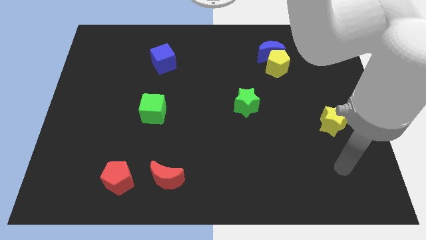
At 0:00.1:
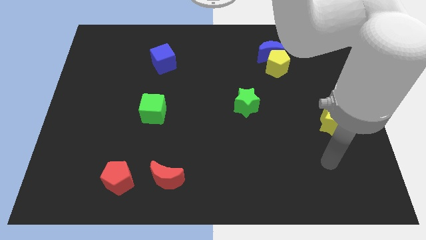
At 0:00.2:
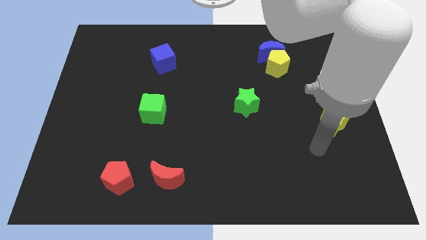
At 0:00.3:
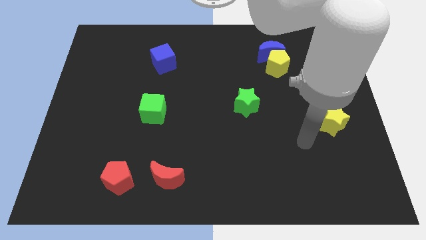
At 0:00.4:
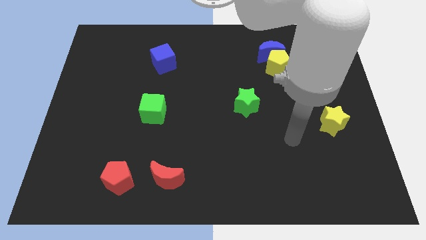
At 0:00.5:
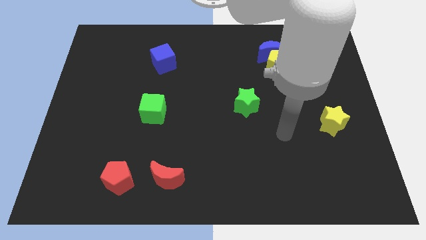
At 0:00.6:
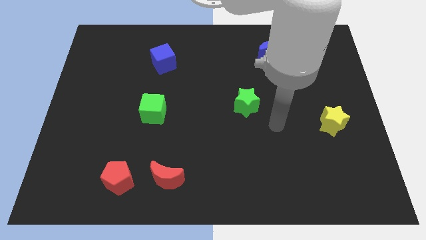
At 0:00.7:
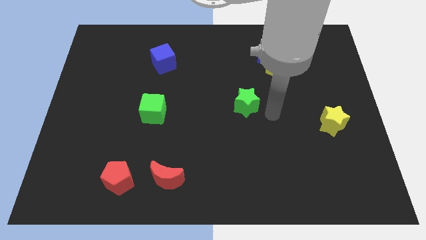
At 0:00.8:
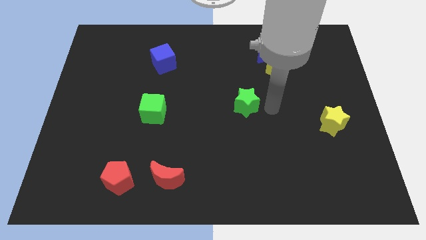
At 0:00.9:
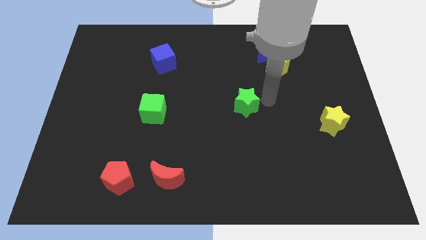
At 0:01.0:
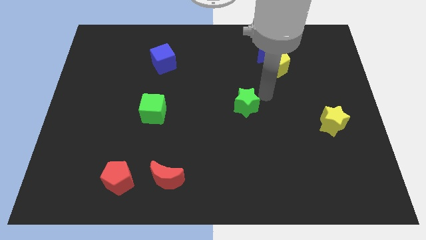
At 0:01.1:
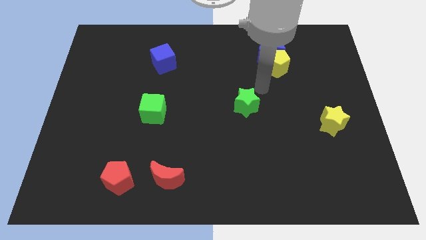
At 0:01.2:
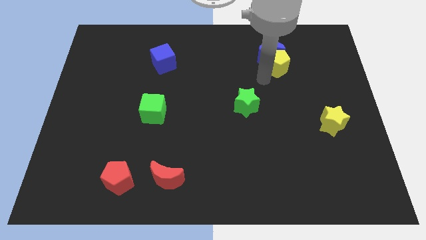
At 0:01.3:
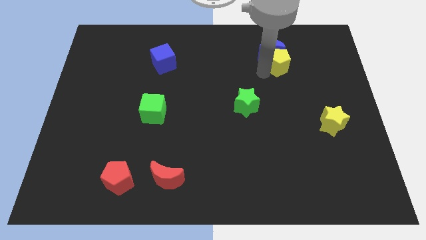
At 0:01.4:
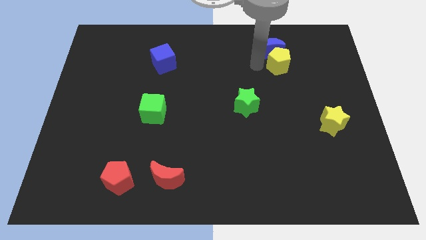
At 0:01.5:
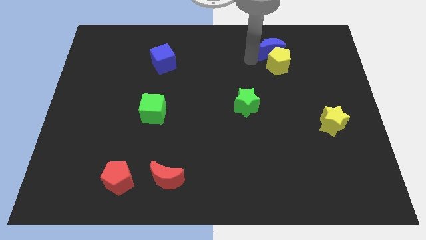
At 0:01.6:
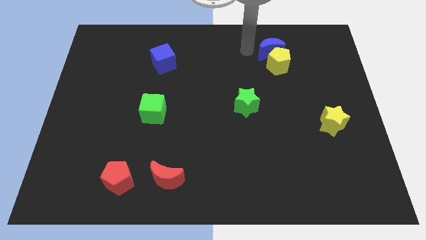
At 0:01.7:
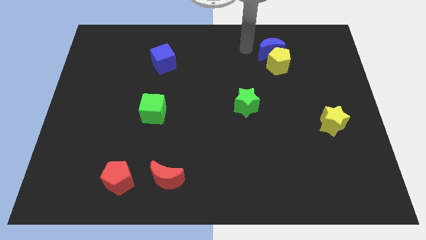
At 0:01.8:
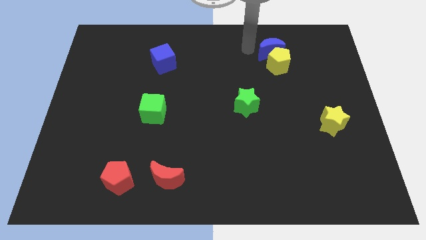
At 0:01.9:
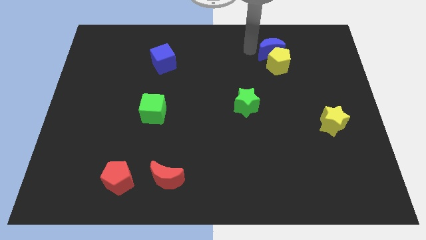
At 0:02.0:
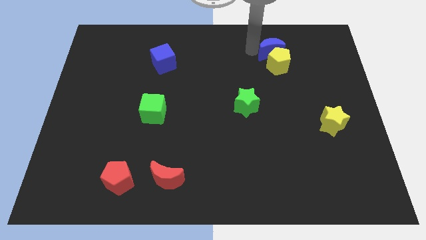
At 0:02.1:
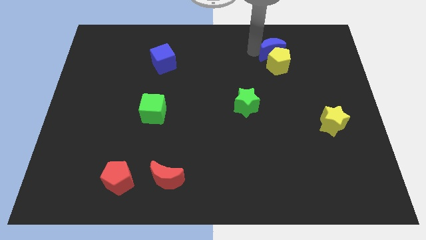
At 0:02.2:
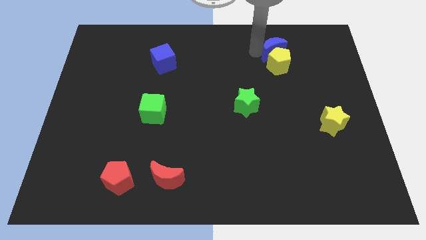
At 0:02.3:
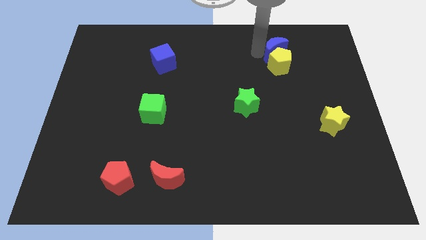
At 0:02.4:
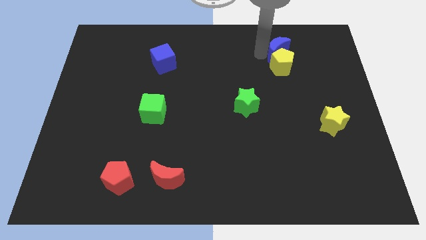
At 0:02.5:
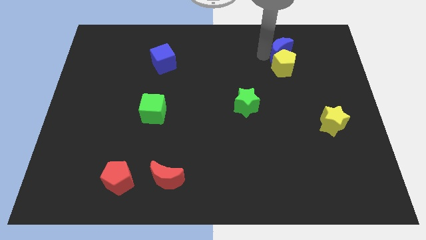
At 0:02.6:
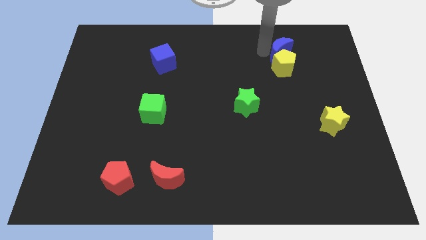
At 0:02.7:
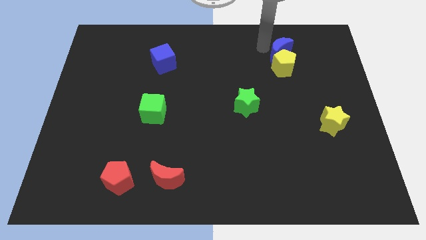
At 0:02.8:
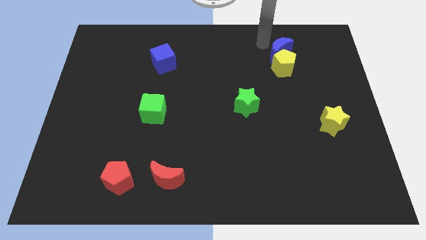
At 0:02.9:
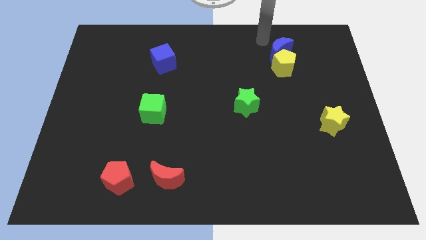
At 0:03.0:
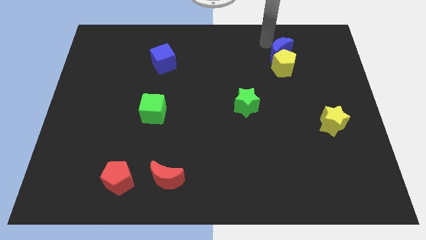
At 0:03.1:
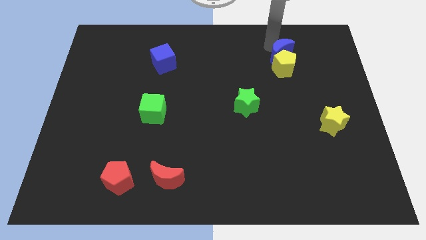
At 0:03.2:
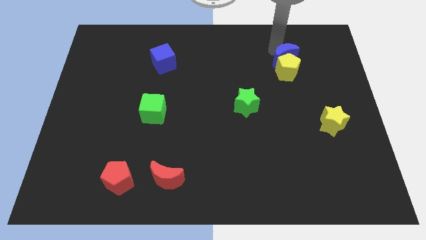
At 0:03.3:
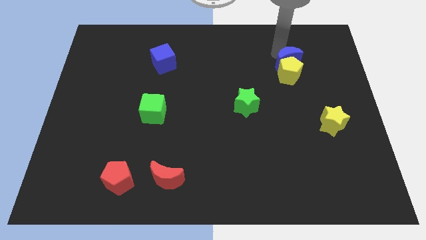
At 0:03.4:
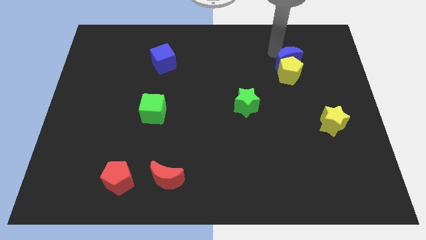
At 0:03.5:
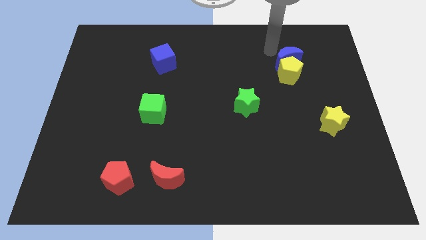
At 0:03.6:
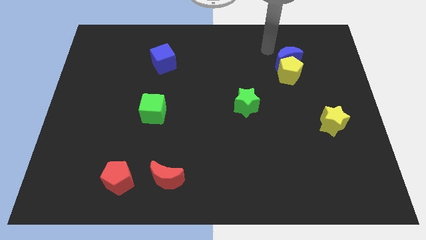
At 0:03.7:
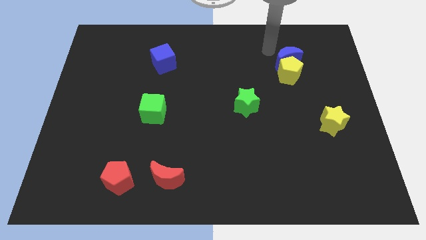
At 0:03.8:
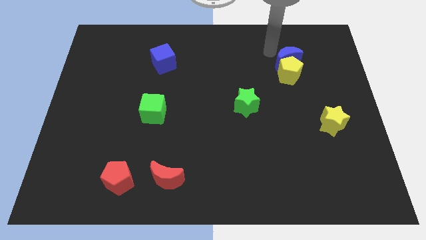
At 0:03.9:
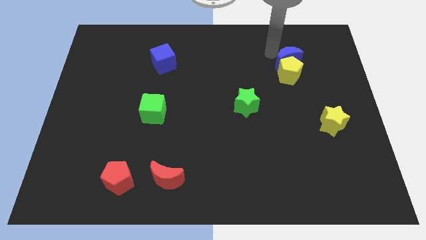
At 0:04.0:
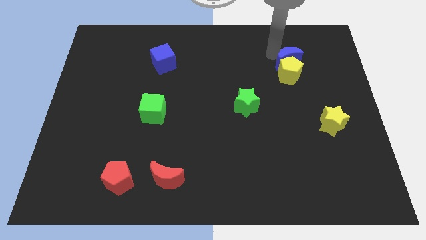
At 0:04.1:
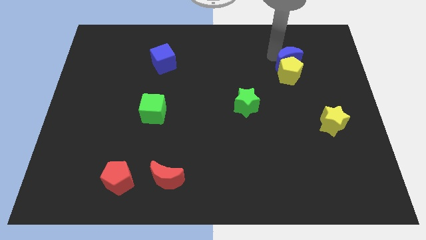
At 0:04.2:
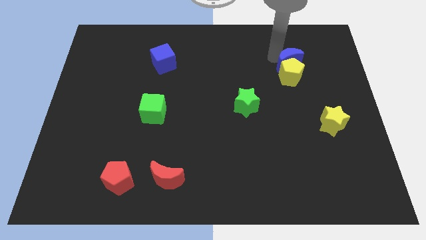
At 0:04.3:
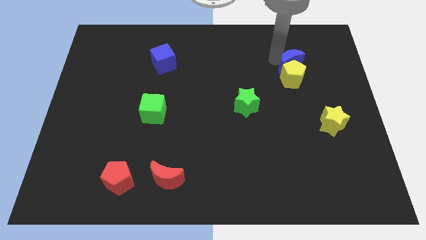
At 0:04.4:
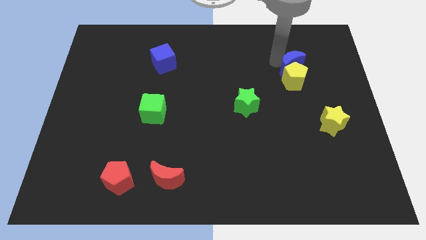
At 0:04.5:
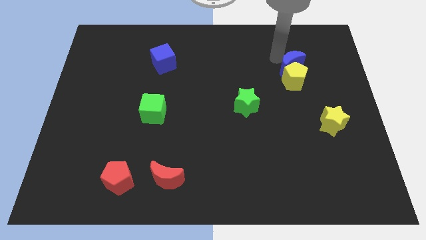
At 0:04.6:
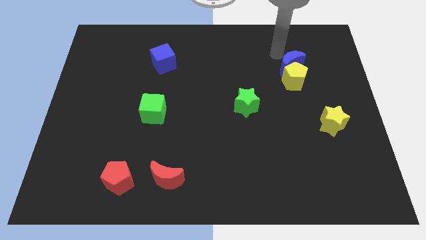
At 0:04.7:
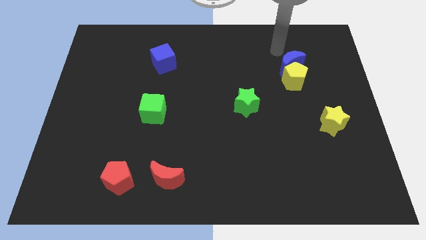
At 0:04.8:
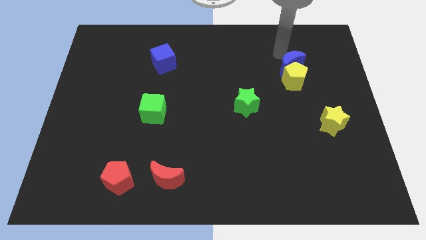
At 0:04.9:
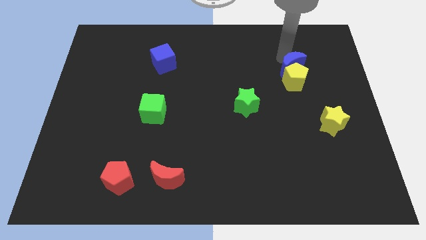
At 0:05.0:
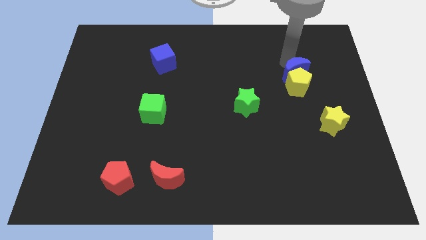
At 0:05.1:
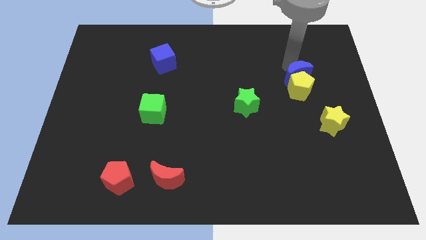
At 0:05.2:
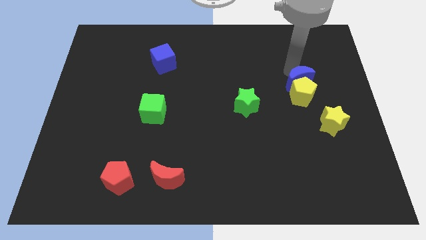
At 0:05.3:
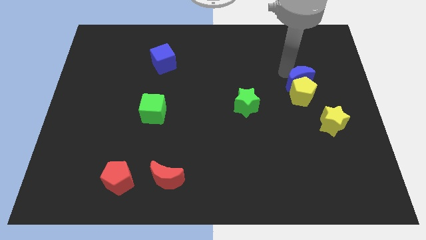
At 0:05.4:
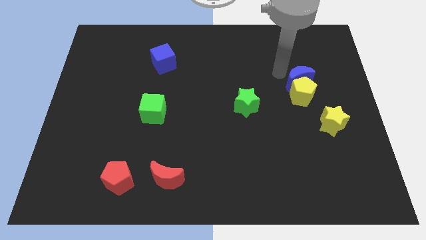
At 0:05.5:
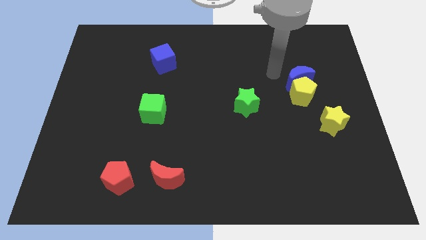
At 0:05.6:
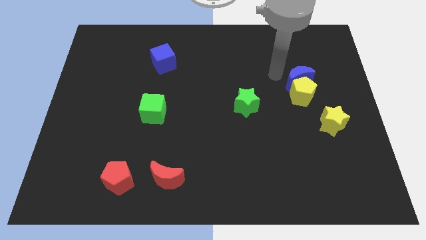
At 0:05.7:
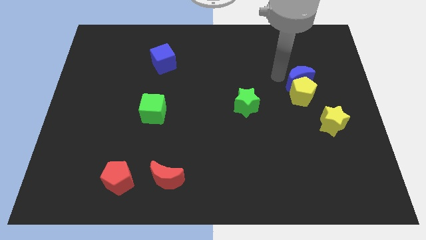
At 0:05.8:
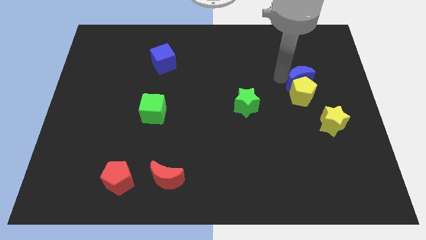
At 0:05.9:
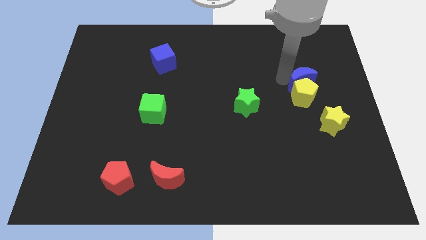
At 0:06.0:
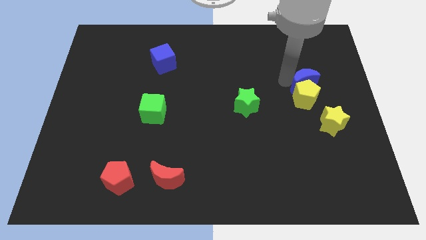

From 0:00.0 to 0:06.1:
move the blue moon to the top of the yellow star
